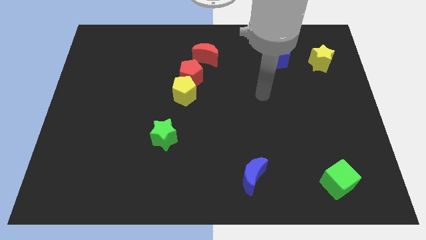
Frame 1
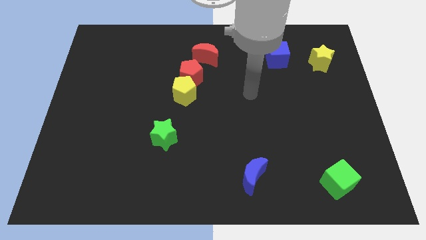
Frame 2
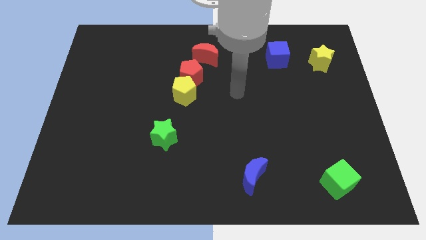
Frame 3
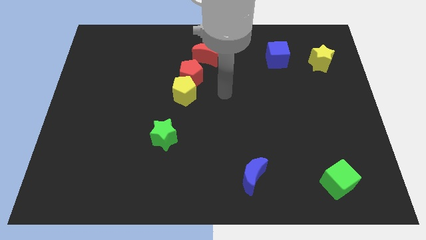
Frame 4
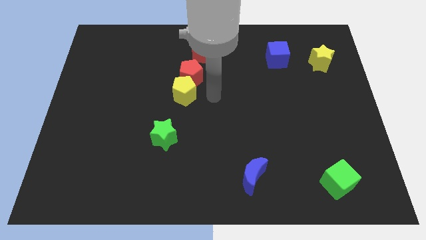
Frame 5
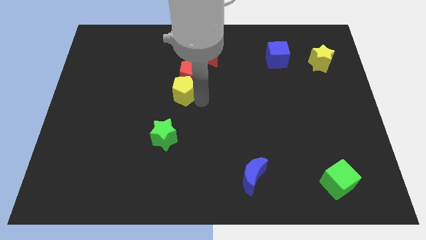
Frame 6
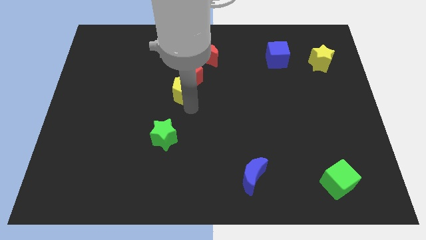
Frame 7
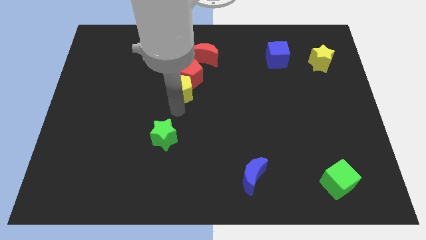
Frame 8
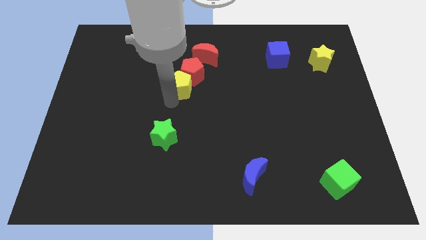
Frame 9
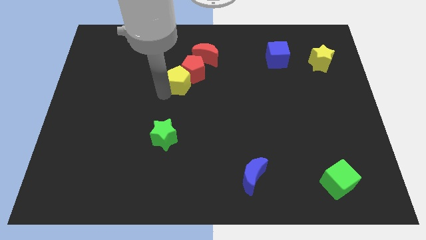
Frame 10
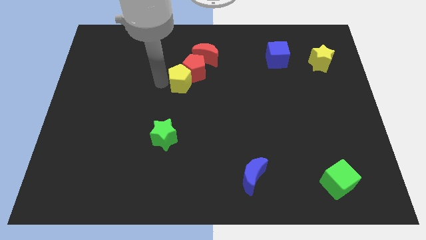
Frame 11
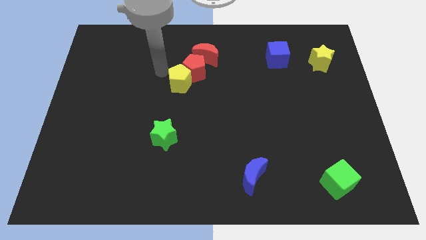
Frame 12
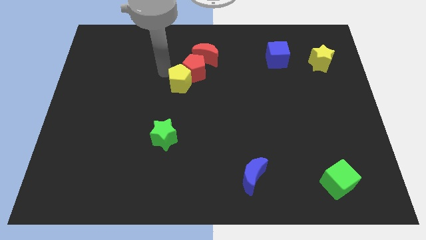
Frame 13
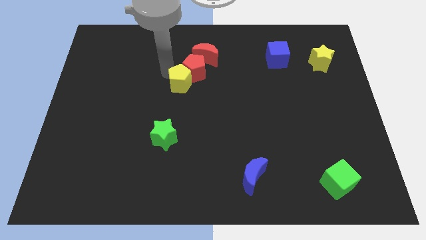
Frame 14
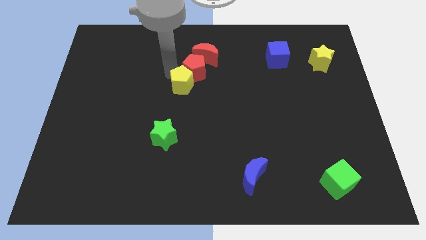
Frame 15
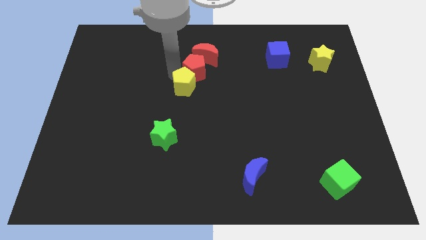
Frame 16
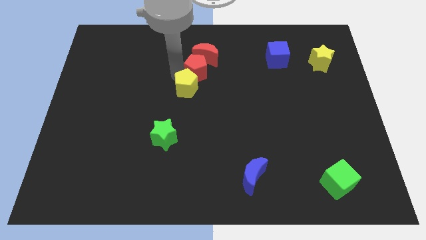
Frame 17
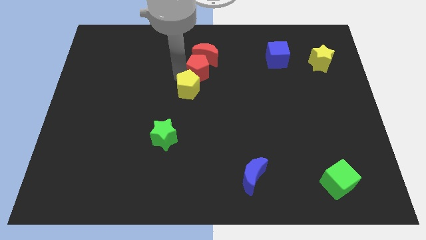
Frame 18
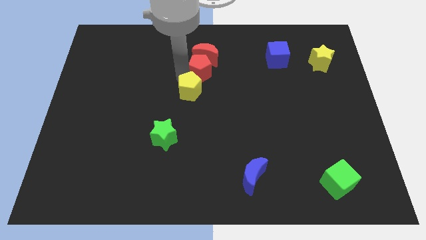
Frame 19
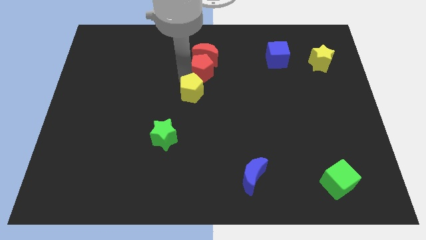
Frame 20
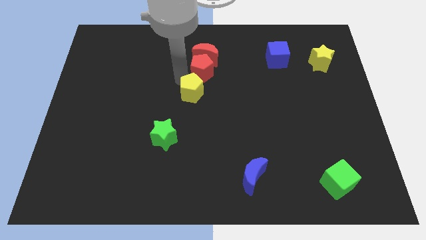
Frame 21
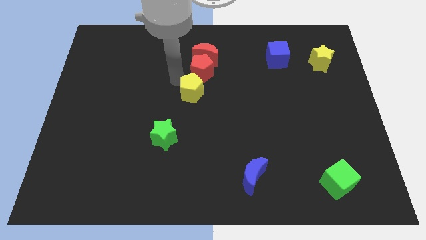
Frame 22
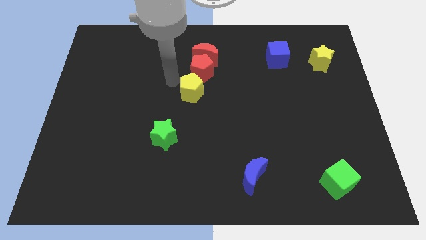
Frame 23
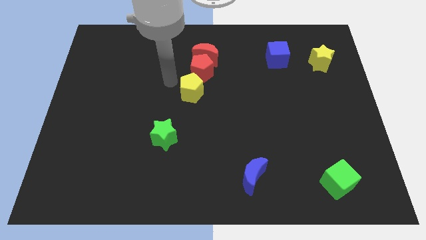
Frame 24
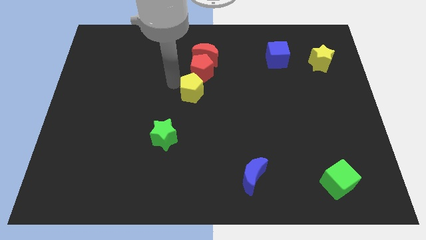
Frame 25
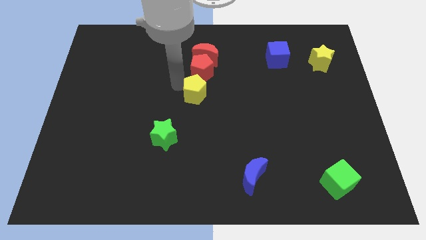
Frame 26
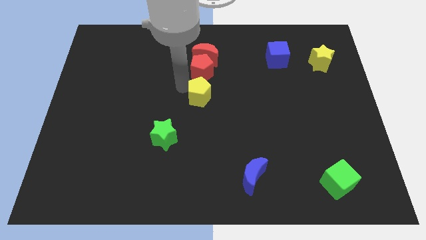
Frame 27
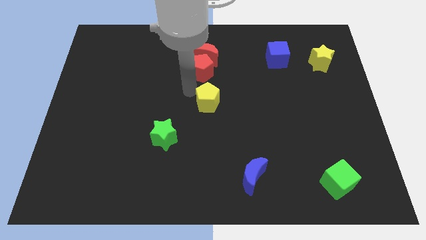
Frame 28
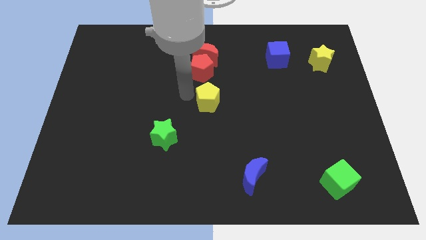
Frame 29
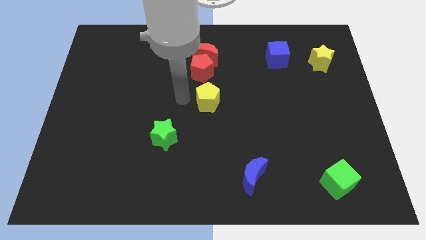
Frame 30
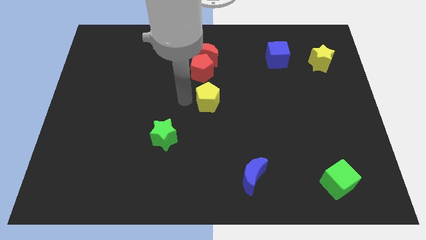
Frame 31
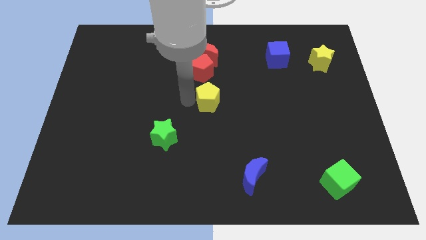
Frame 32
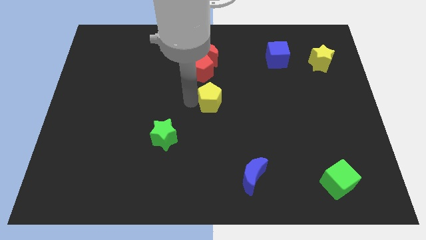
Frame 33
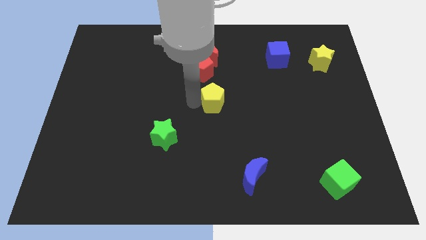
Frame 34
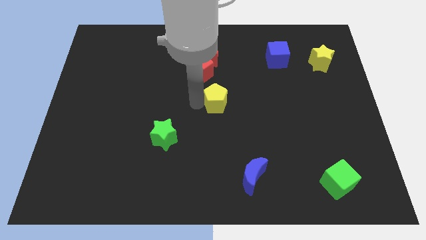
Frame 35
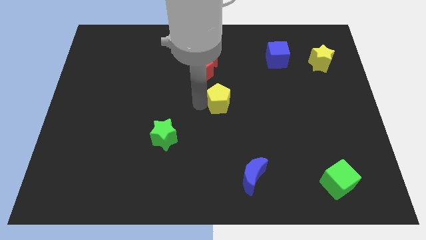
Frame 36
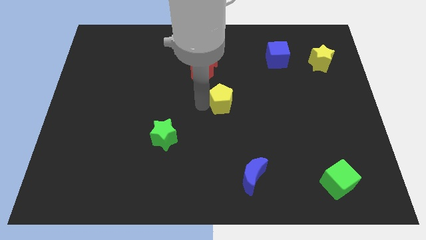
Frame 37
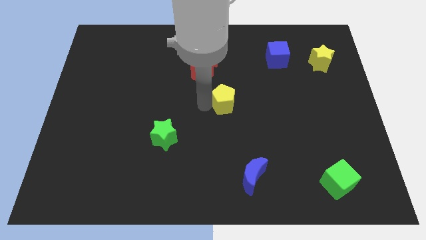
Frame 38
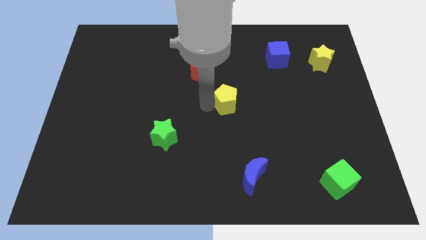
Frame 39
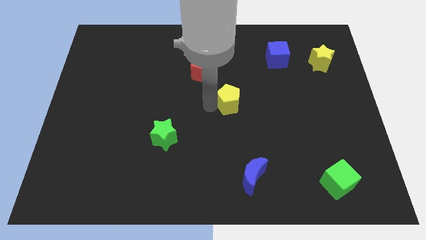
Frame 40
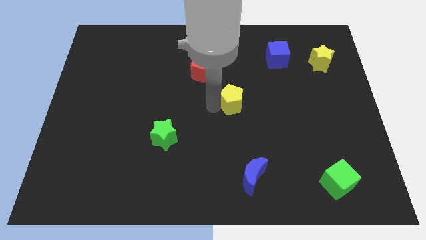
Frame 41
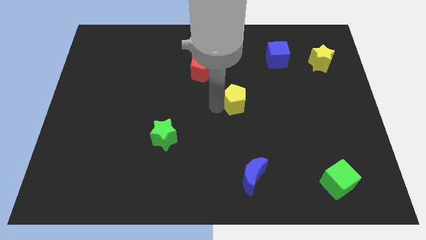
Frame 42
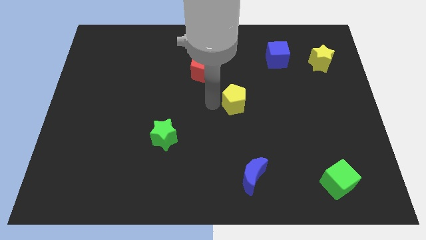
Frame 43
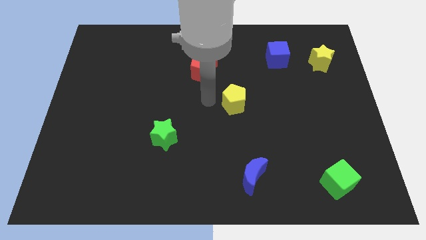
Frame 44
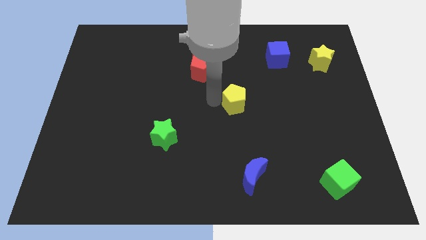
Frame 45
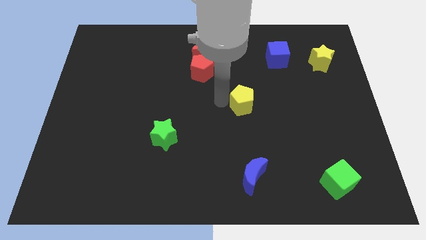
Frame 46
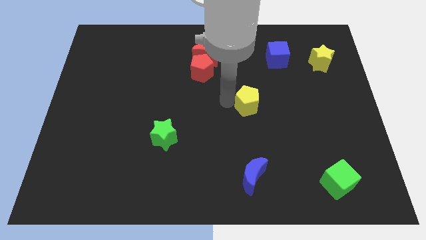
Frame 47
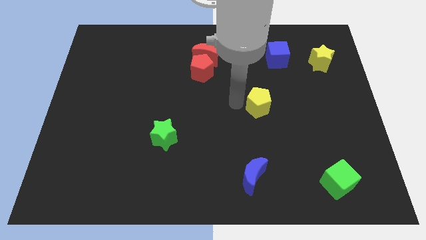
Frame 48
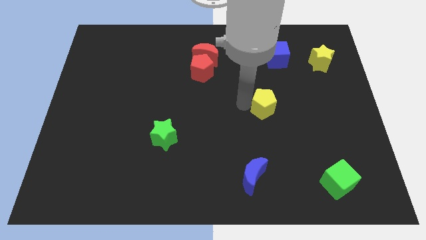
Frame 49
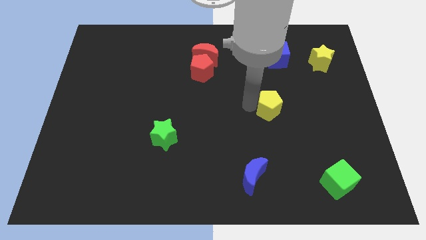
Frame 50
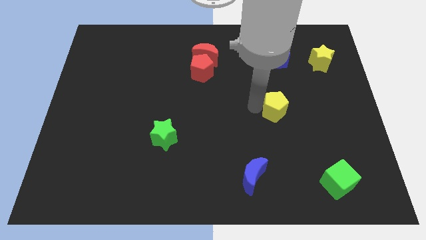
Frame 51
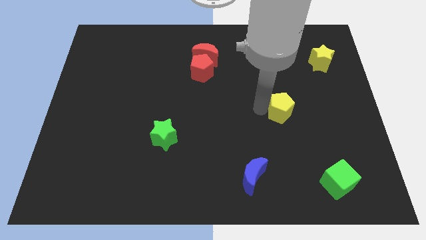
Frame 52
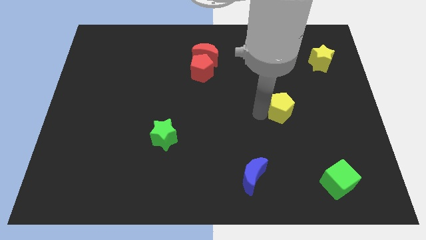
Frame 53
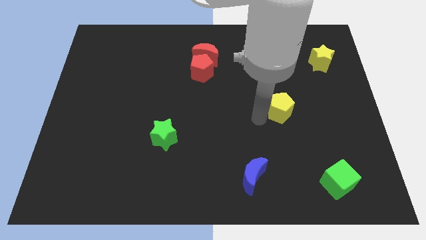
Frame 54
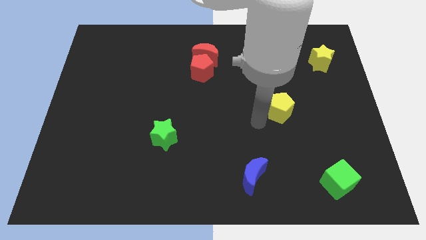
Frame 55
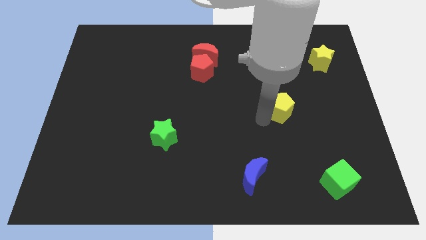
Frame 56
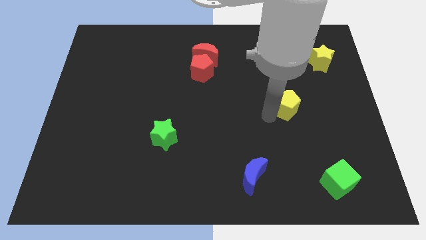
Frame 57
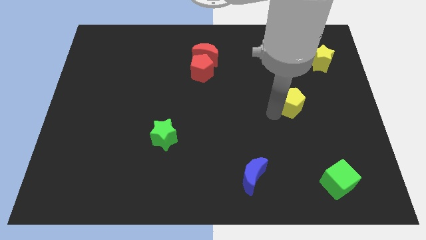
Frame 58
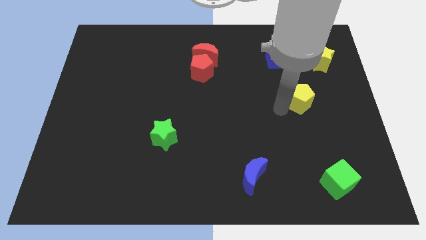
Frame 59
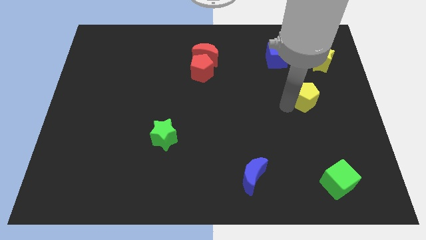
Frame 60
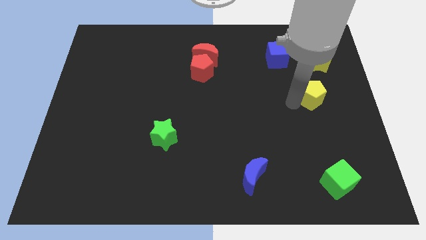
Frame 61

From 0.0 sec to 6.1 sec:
push the yellow pentagon to the bottom of the yellow star

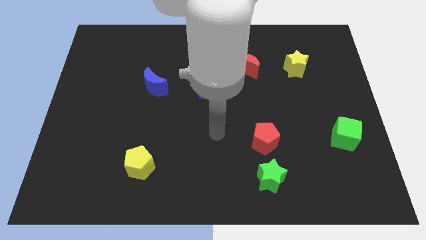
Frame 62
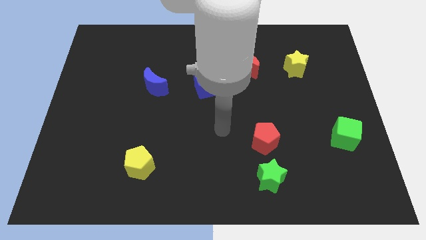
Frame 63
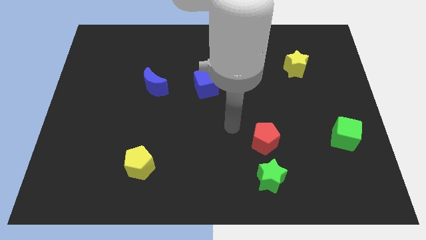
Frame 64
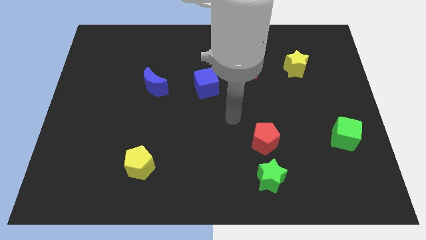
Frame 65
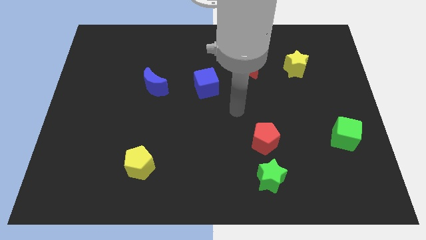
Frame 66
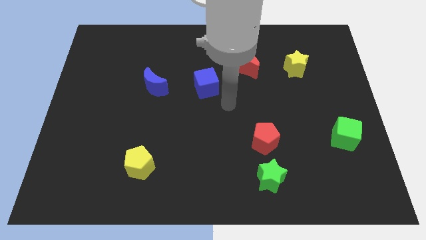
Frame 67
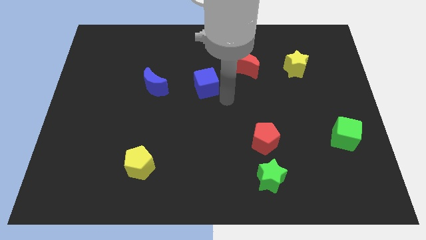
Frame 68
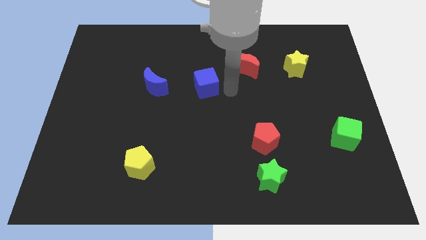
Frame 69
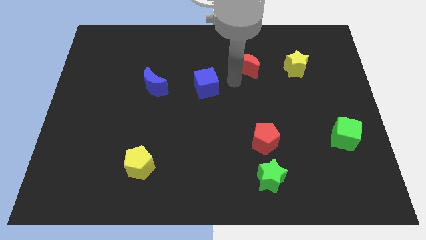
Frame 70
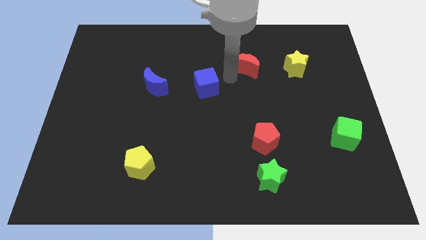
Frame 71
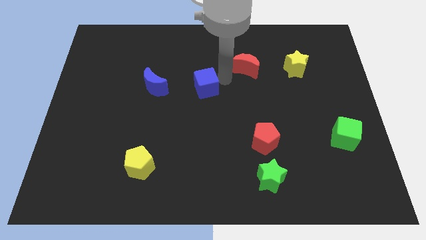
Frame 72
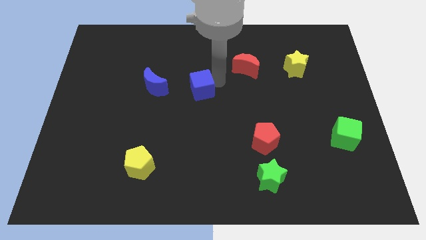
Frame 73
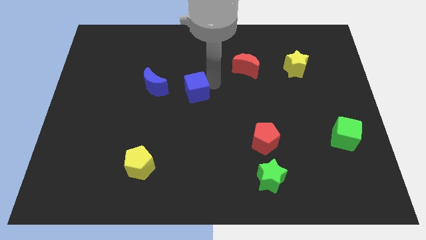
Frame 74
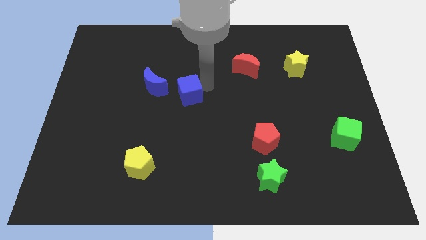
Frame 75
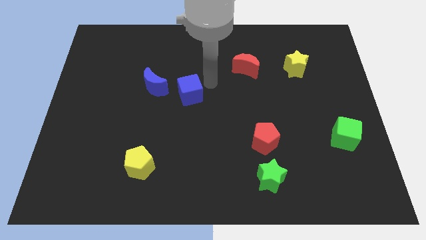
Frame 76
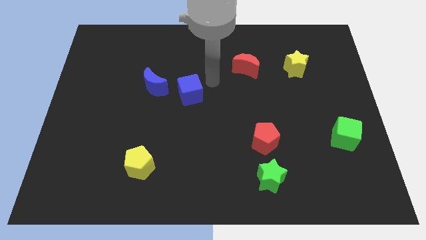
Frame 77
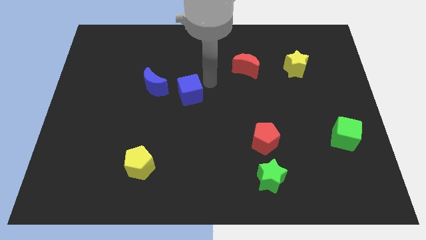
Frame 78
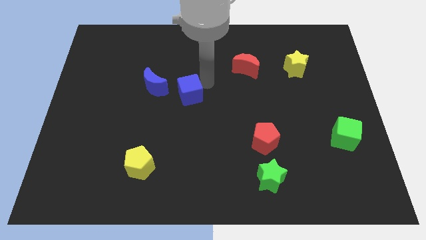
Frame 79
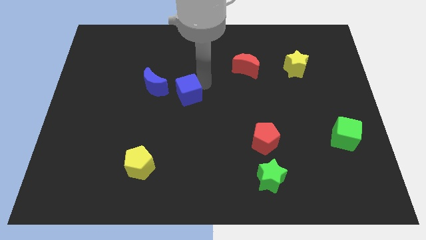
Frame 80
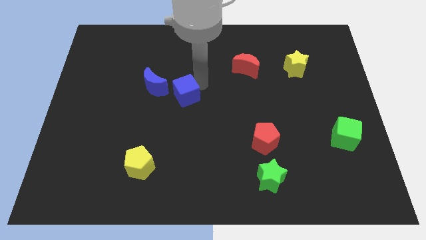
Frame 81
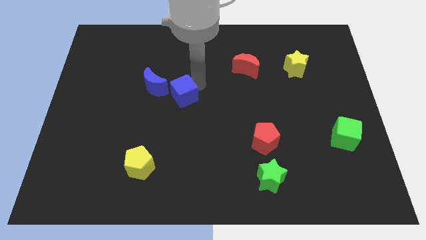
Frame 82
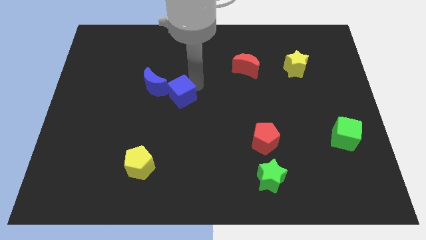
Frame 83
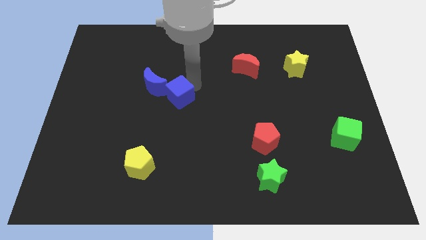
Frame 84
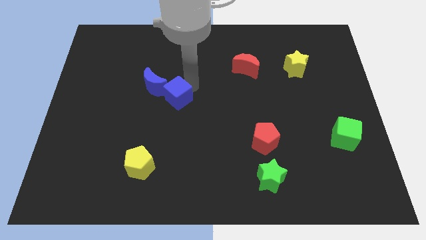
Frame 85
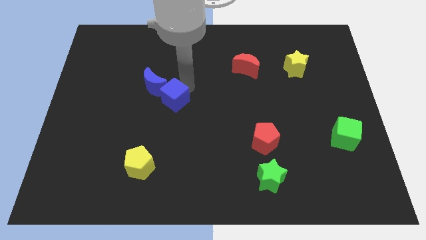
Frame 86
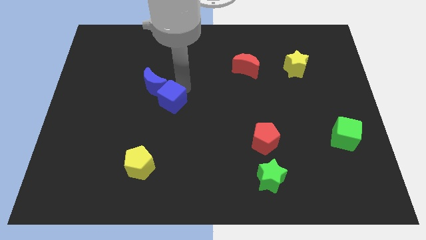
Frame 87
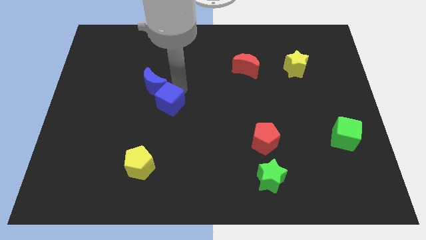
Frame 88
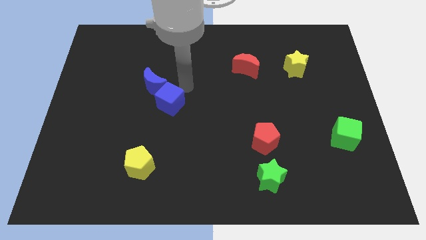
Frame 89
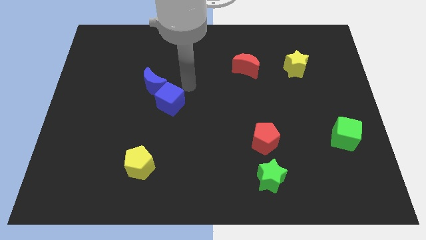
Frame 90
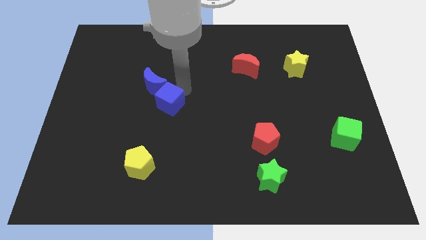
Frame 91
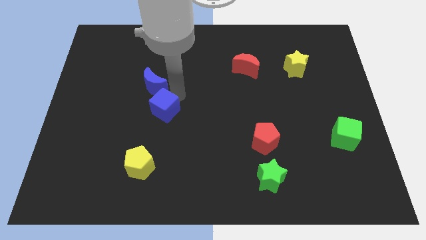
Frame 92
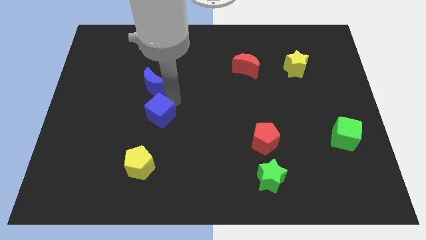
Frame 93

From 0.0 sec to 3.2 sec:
put the blue cube above the yellow pentagon
